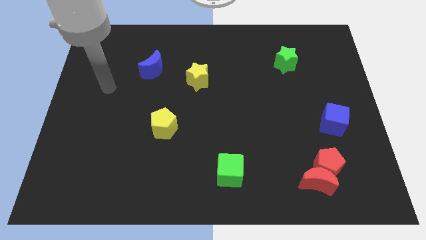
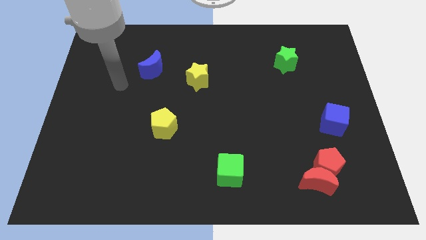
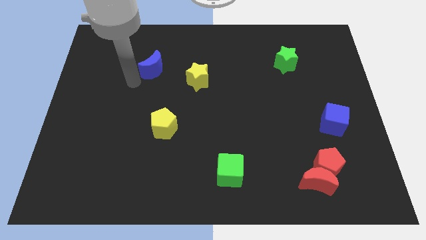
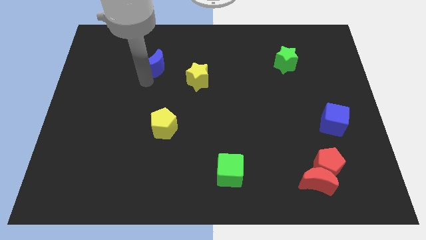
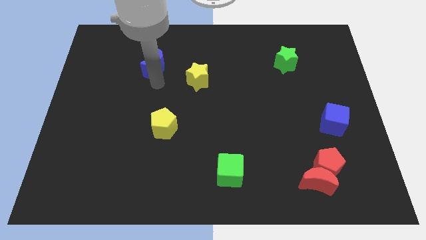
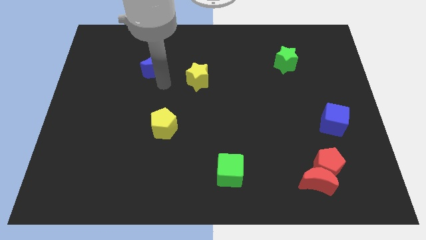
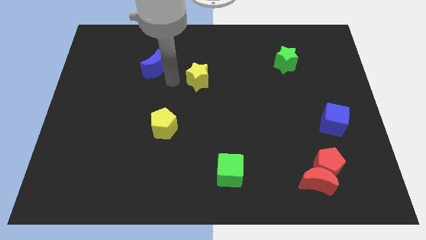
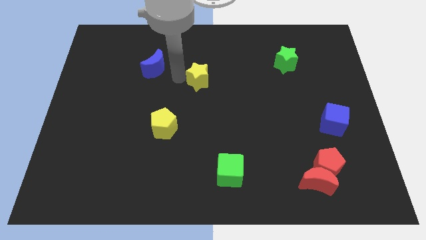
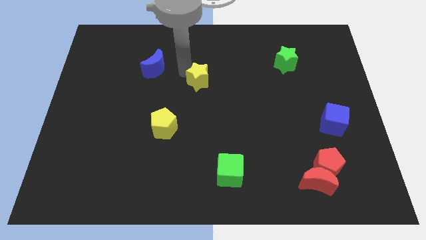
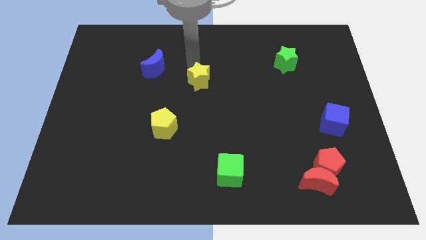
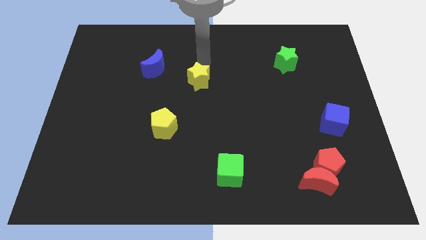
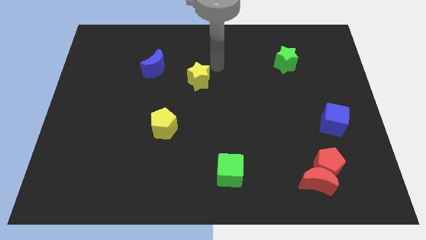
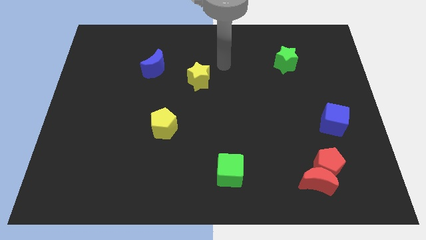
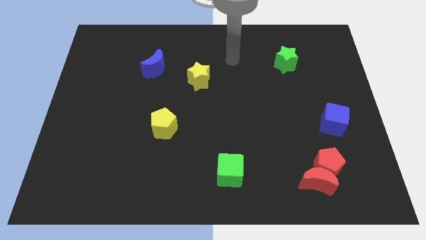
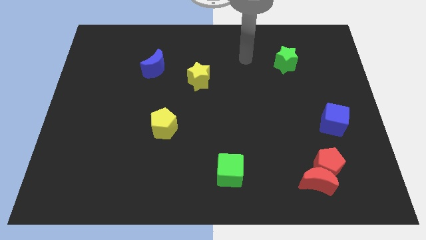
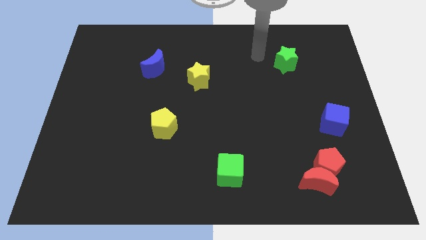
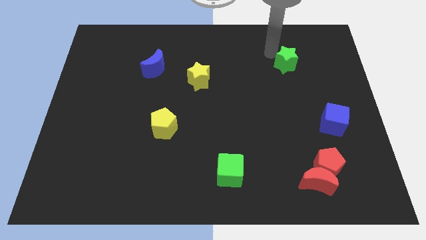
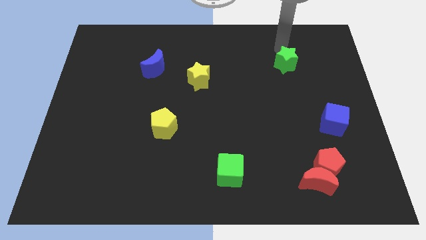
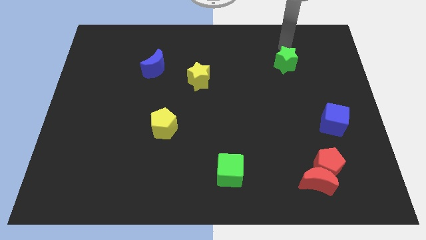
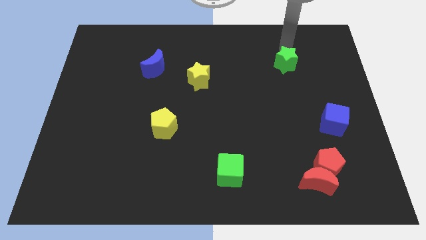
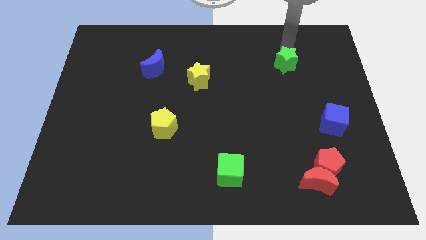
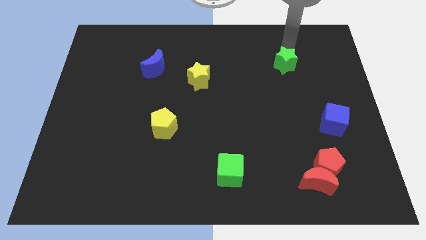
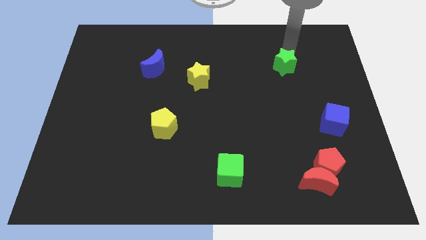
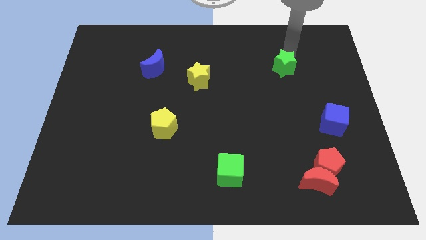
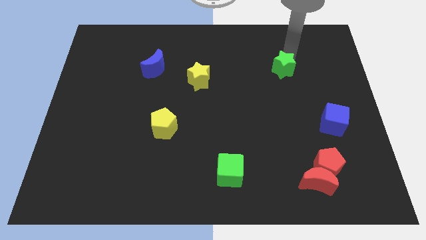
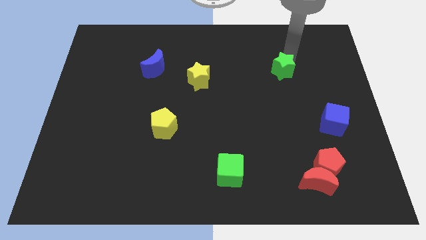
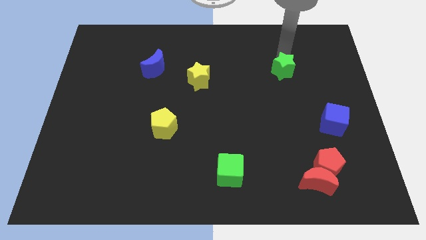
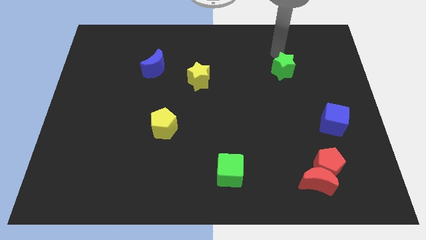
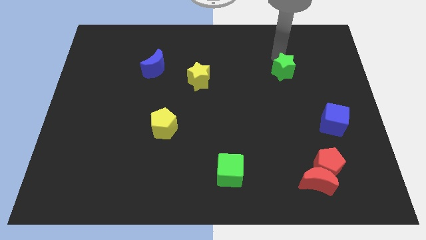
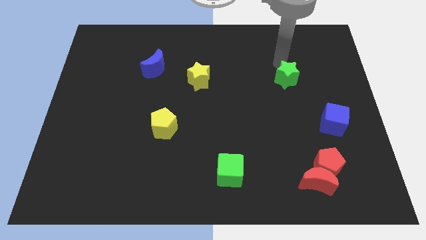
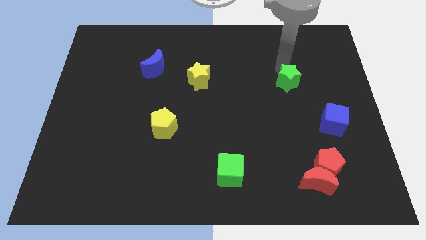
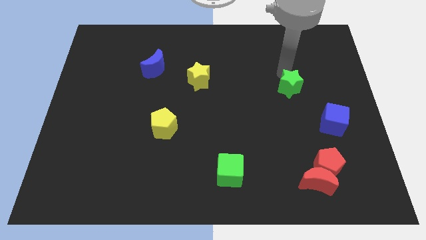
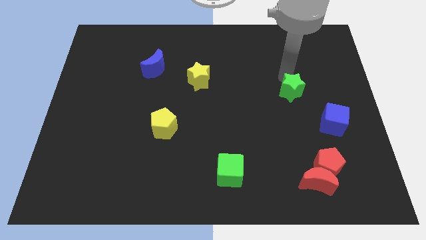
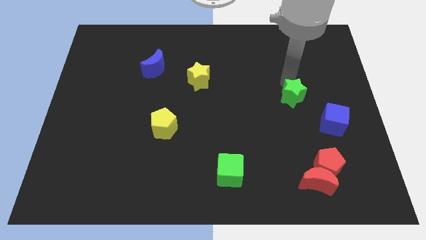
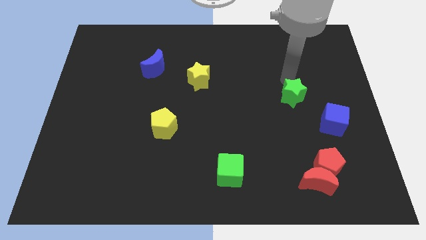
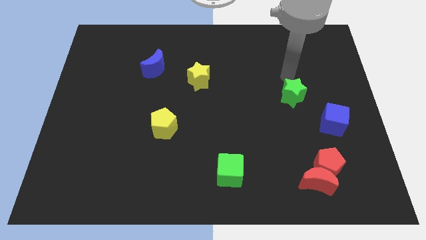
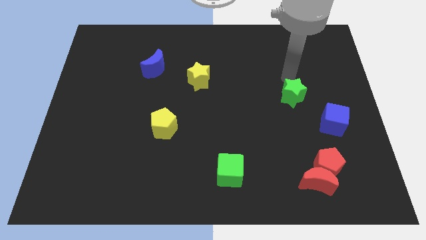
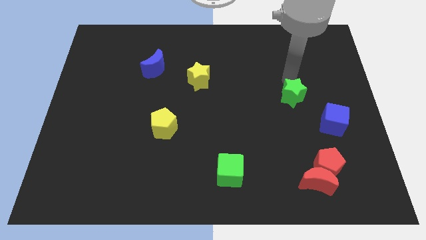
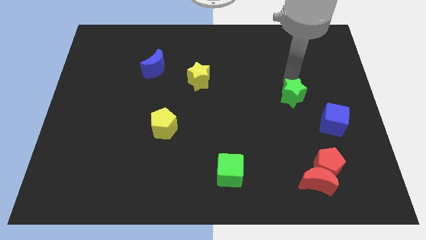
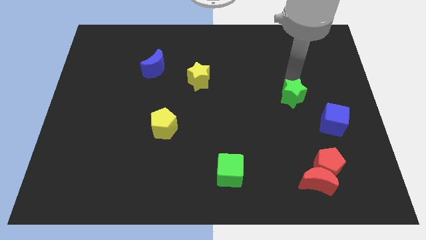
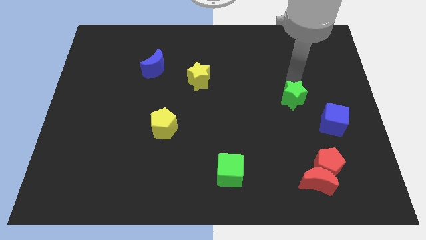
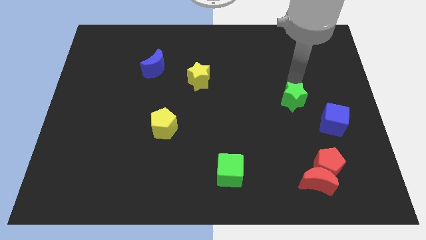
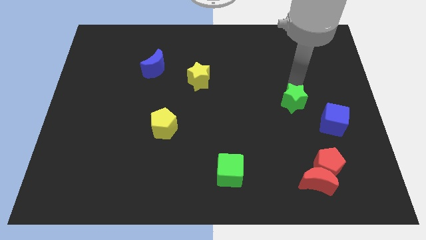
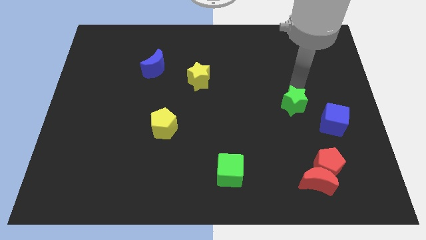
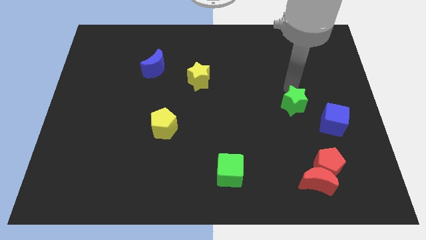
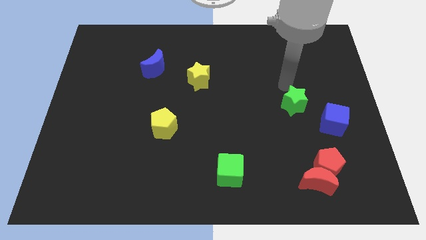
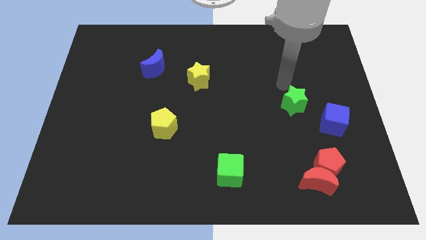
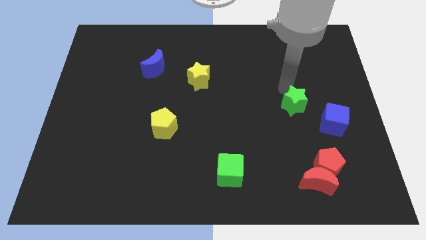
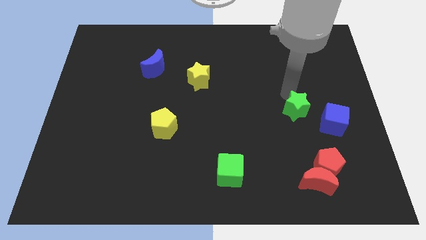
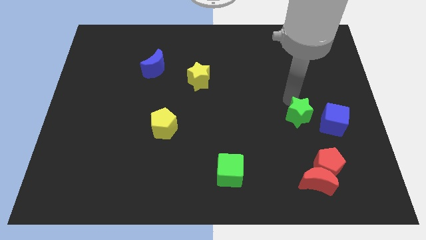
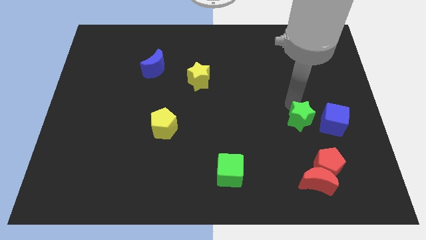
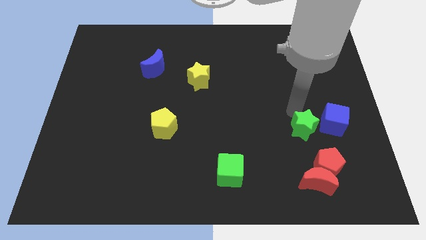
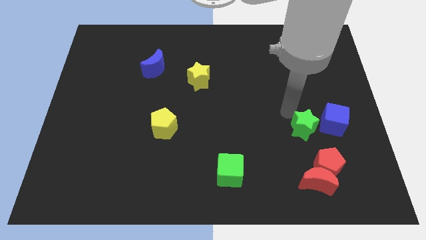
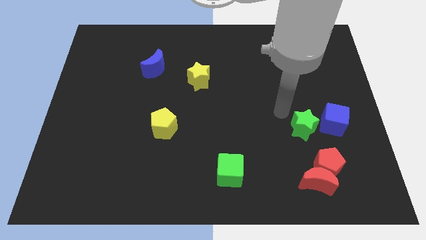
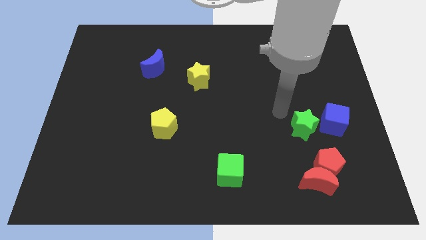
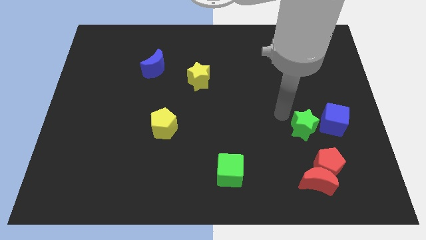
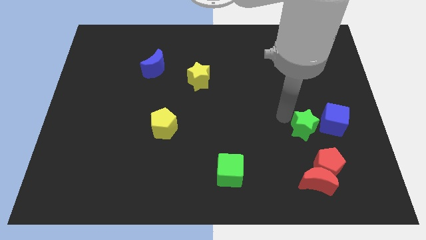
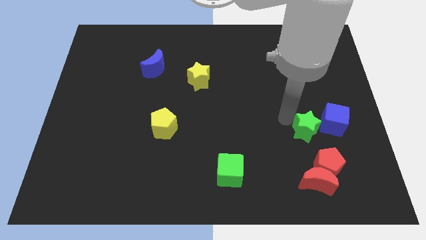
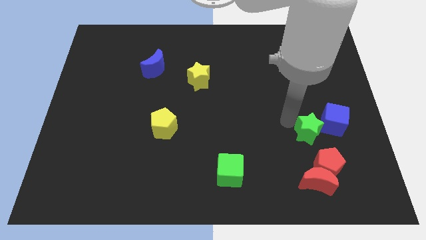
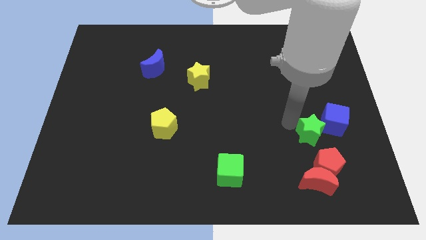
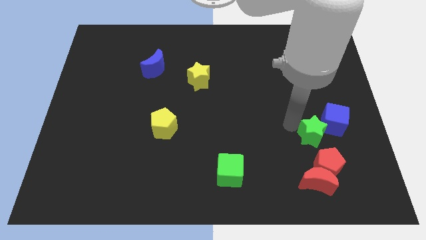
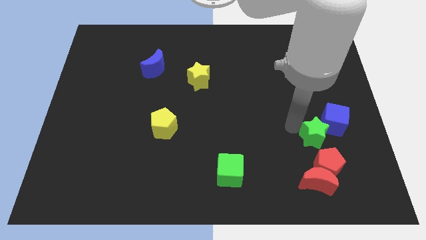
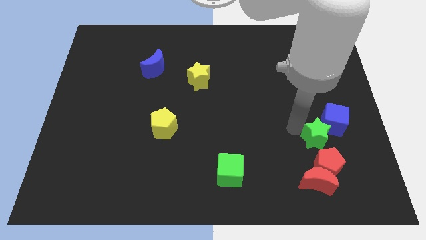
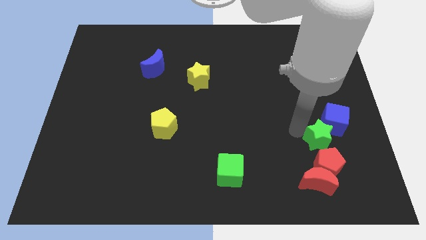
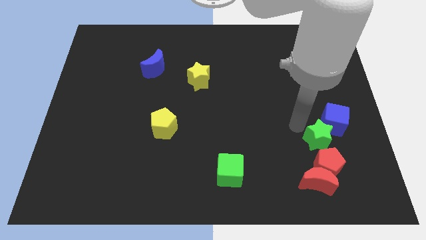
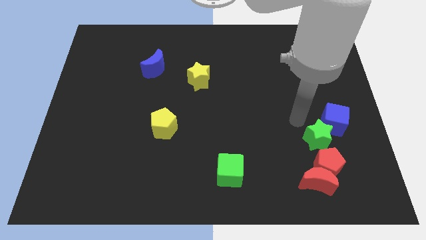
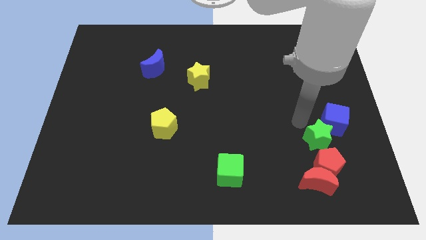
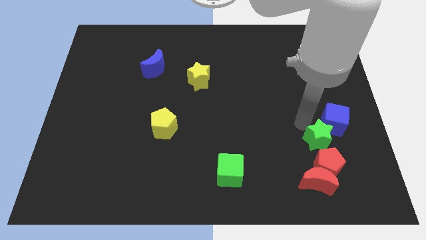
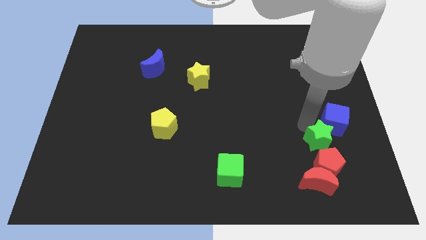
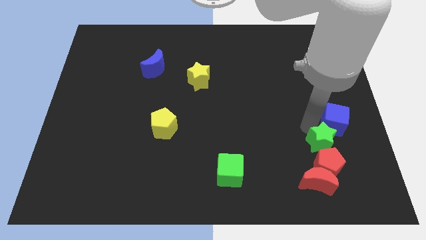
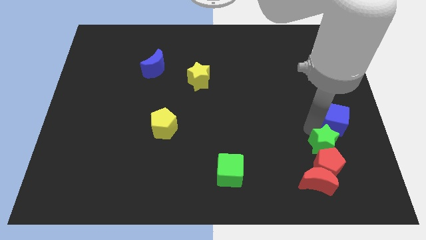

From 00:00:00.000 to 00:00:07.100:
move the green star to the top right of the red moon

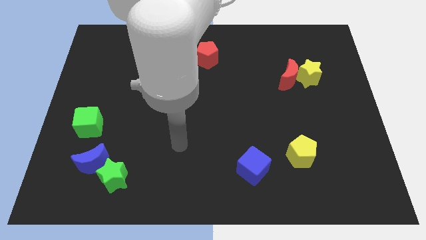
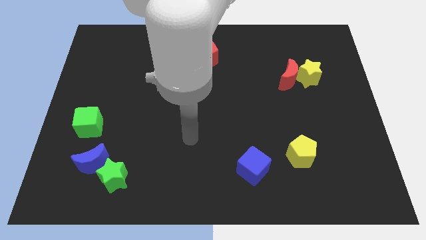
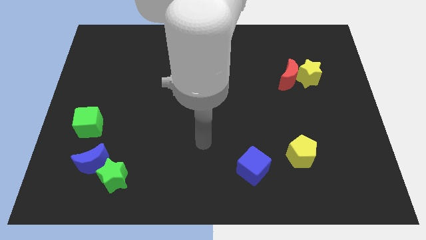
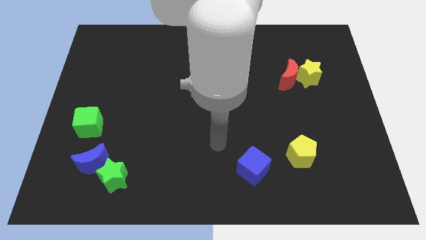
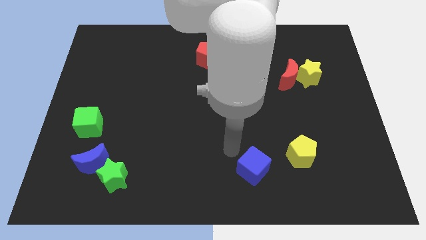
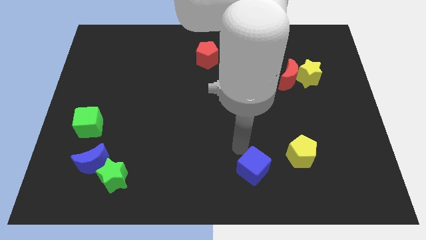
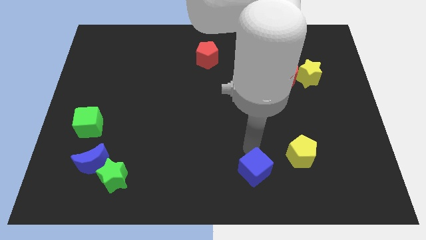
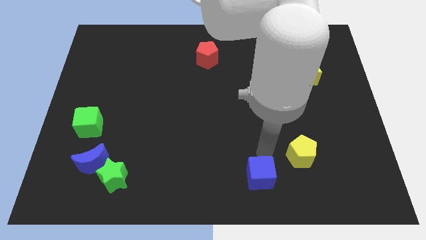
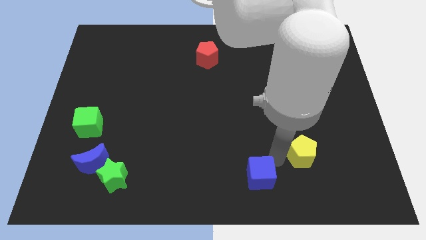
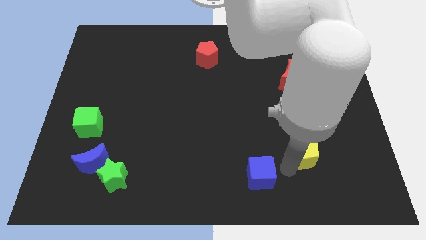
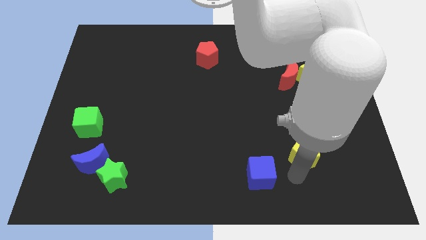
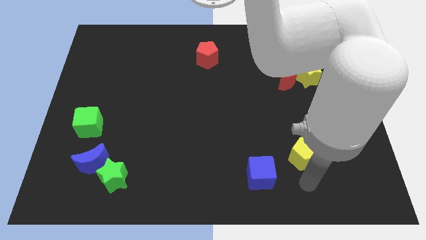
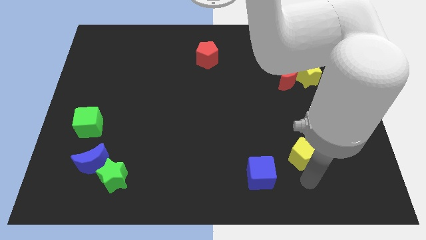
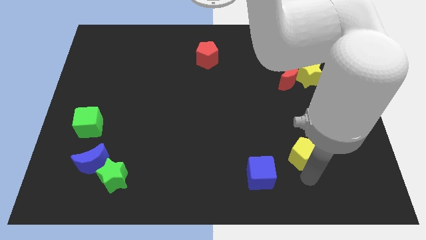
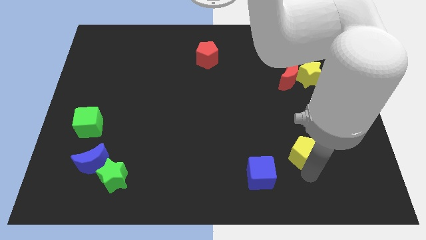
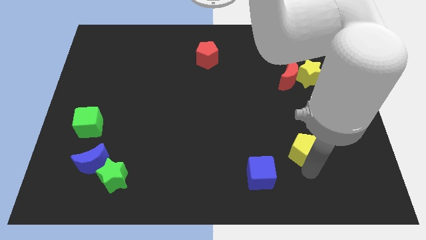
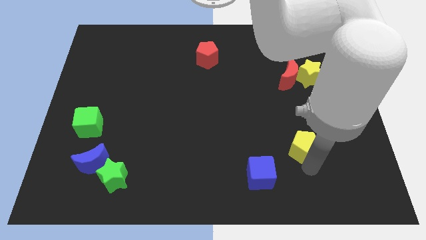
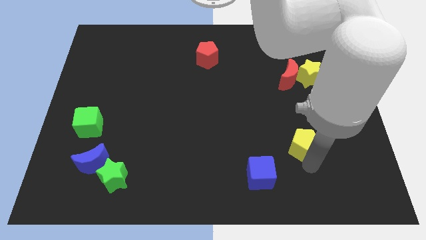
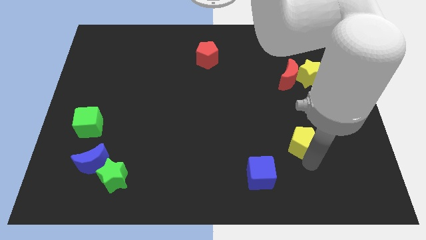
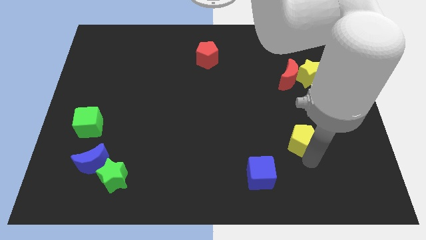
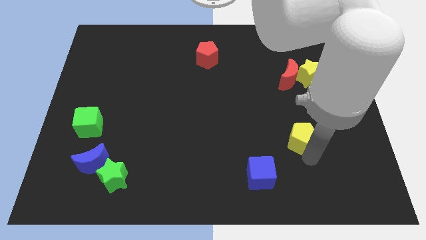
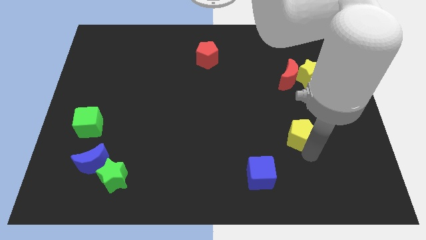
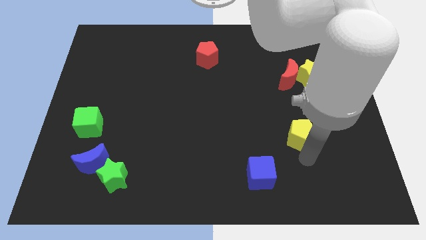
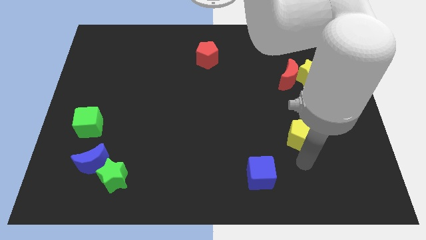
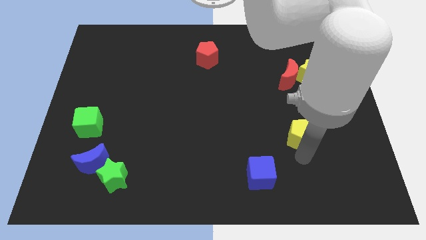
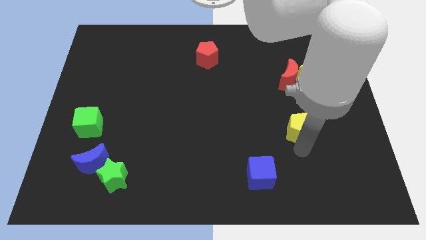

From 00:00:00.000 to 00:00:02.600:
slide the yellow pentagon below the red moon
